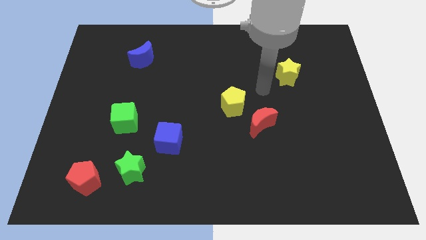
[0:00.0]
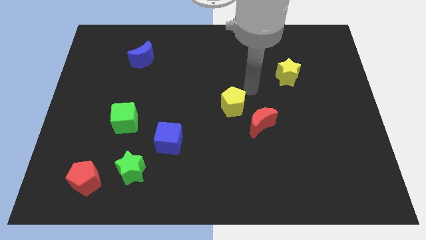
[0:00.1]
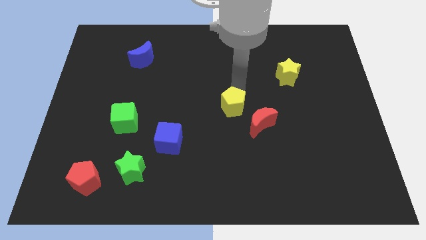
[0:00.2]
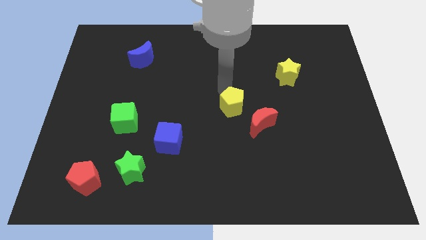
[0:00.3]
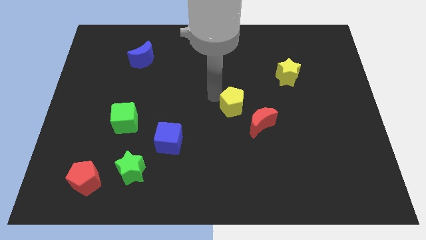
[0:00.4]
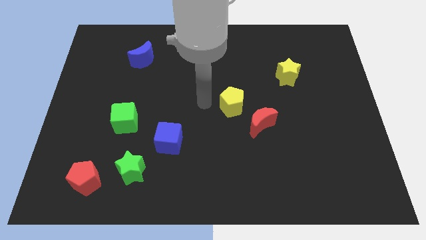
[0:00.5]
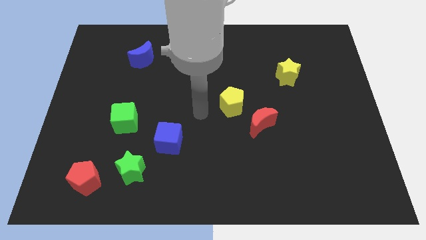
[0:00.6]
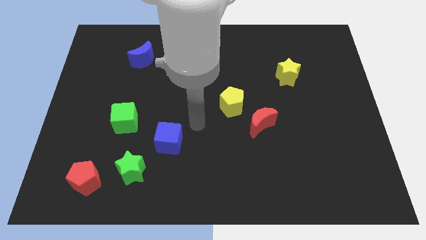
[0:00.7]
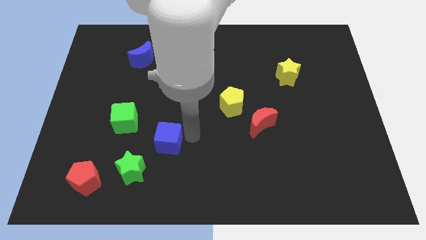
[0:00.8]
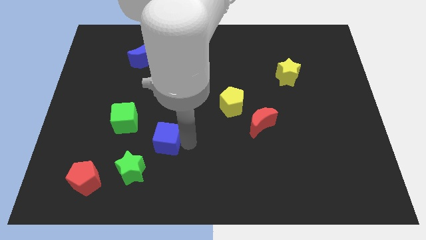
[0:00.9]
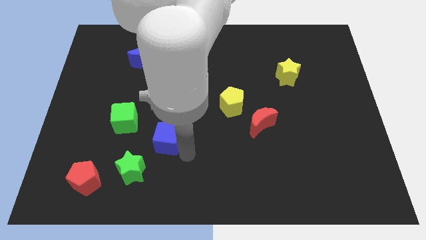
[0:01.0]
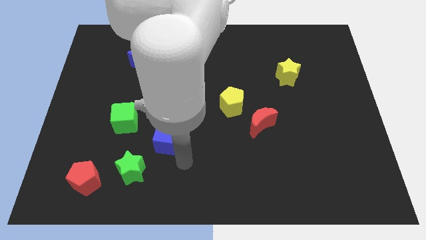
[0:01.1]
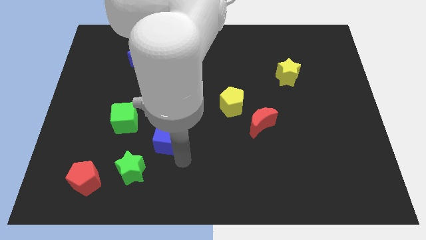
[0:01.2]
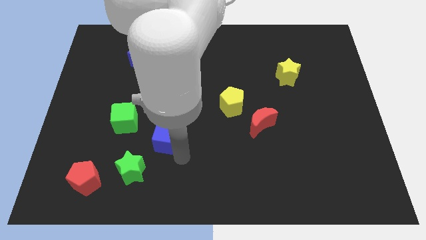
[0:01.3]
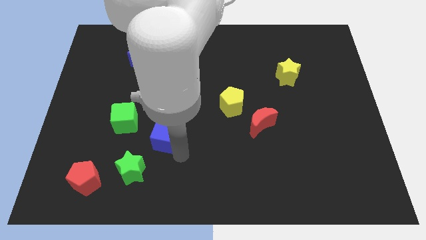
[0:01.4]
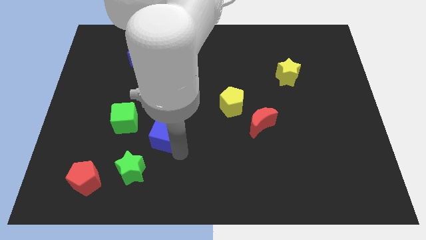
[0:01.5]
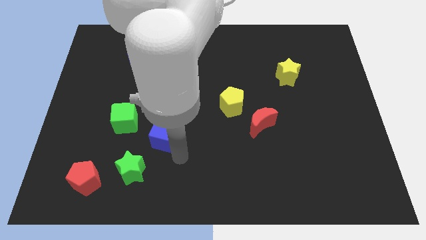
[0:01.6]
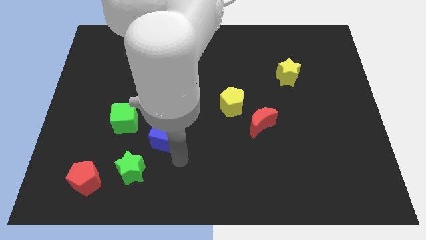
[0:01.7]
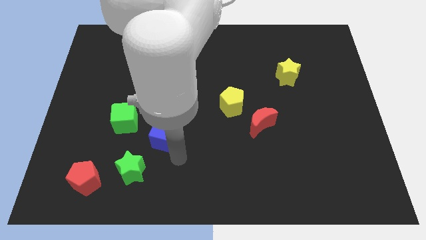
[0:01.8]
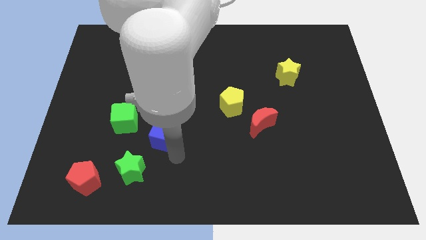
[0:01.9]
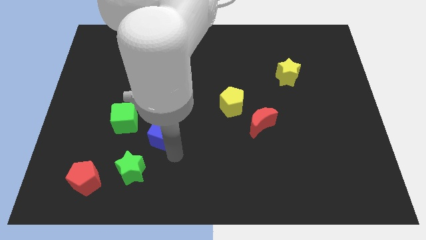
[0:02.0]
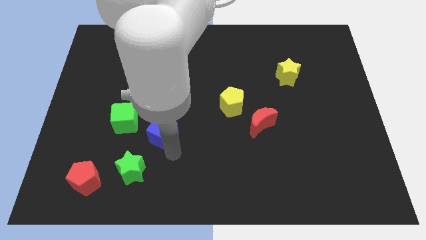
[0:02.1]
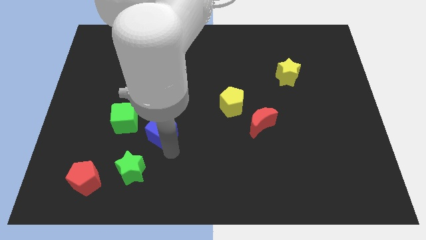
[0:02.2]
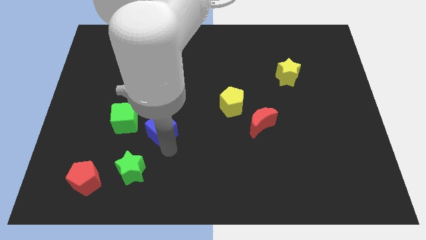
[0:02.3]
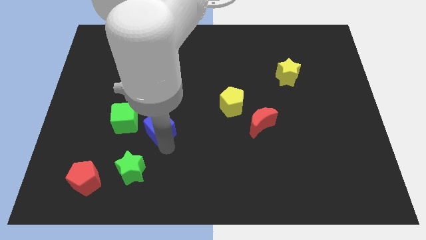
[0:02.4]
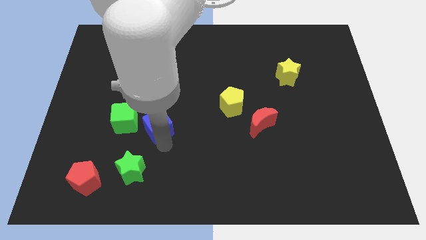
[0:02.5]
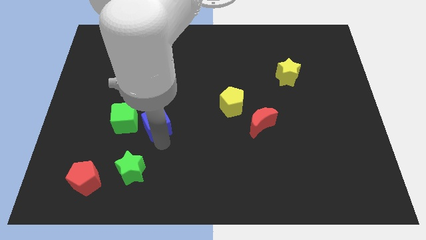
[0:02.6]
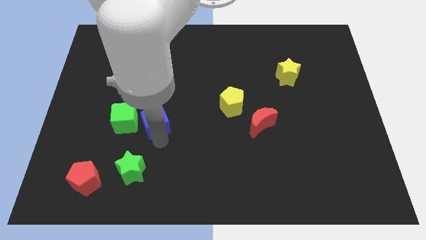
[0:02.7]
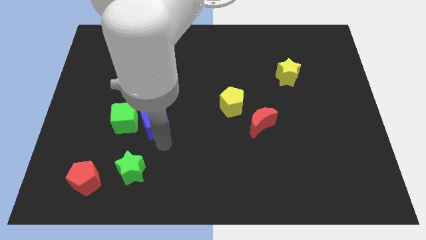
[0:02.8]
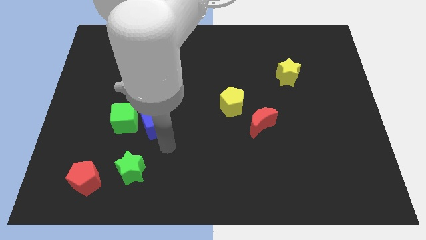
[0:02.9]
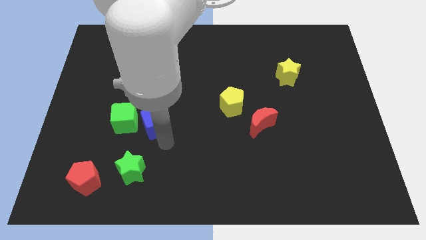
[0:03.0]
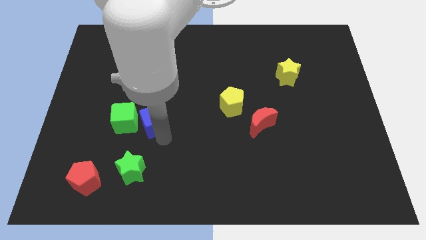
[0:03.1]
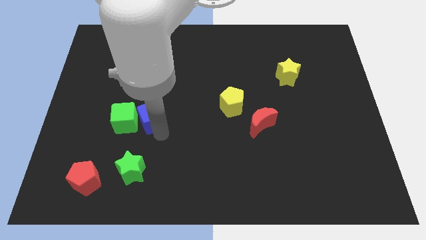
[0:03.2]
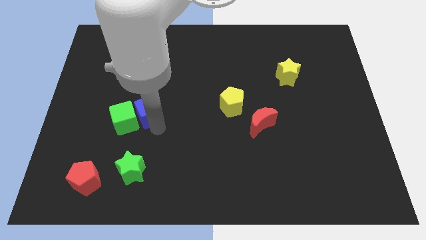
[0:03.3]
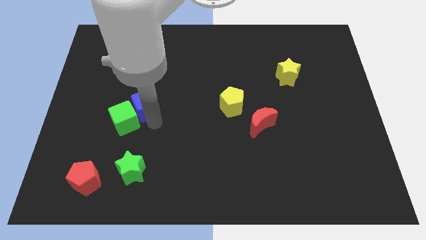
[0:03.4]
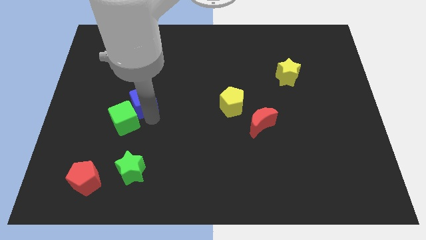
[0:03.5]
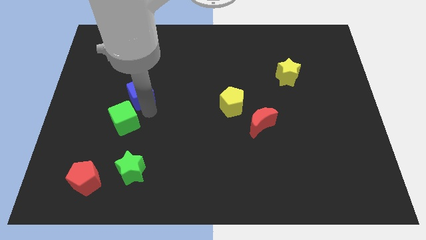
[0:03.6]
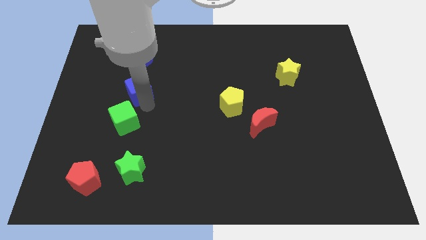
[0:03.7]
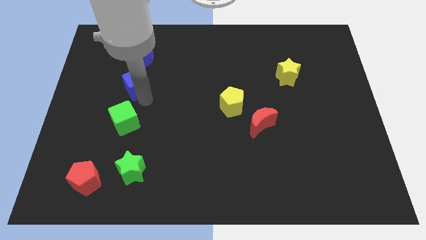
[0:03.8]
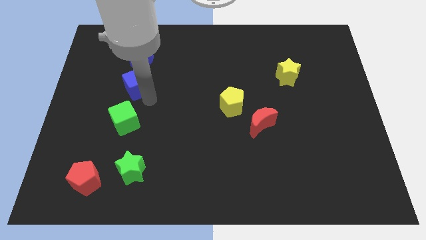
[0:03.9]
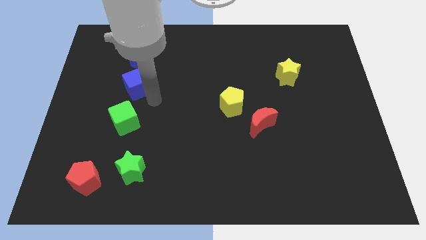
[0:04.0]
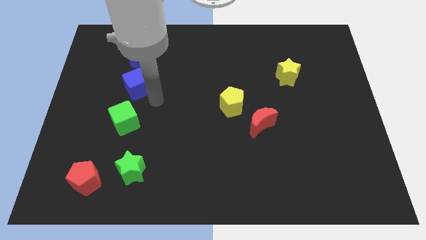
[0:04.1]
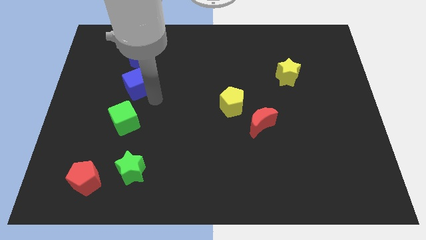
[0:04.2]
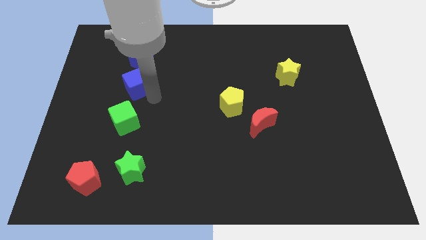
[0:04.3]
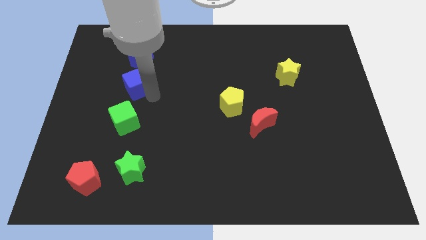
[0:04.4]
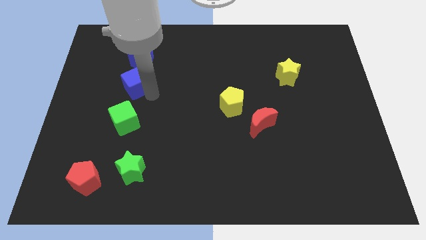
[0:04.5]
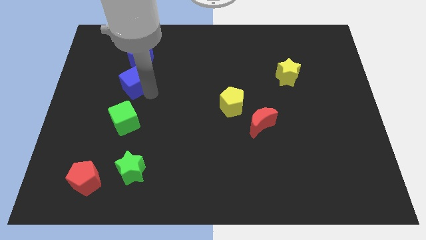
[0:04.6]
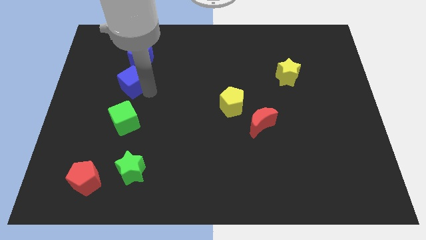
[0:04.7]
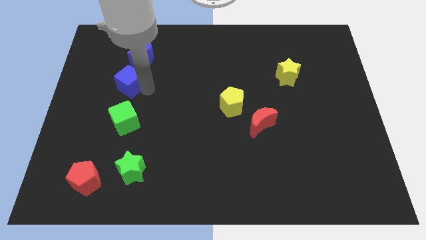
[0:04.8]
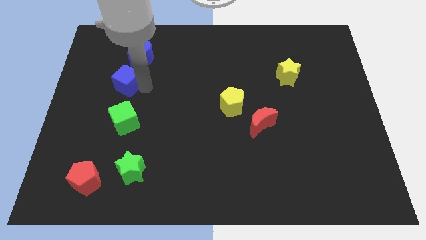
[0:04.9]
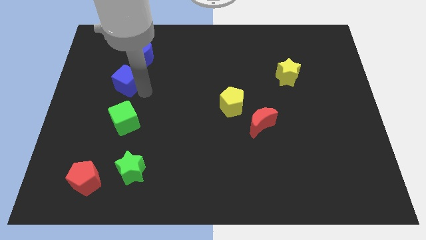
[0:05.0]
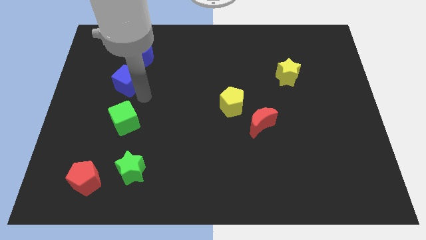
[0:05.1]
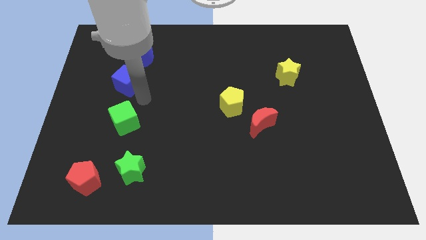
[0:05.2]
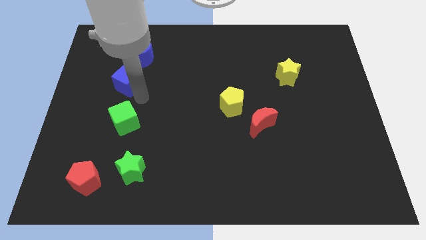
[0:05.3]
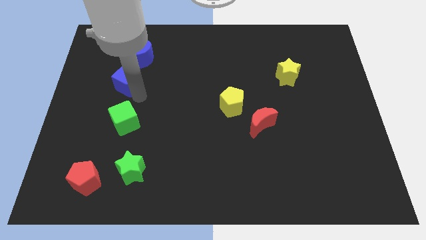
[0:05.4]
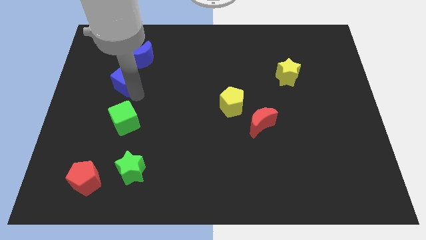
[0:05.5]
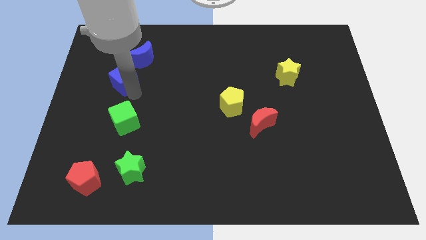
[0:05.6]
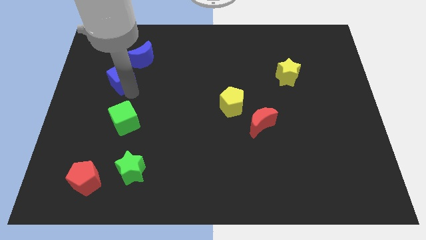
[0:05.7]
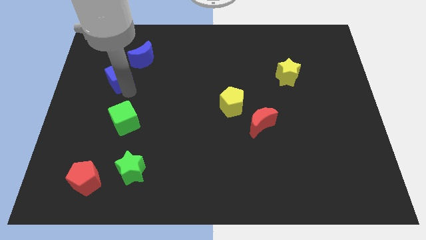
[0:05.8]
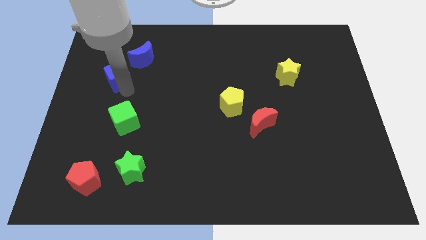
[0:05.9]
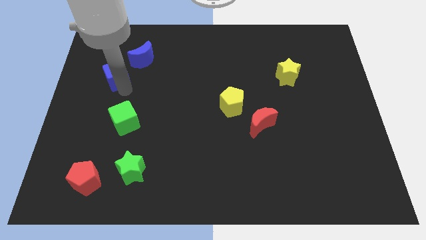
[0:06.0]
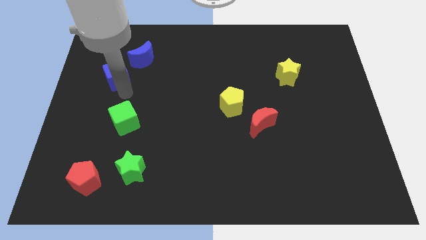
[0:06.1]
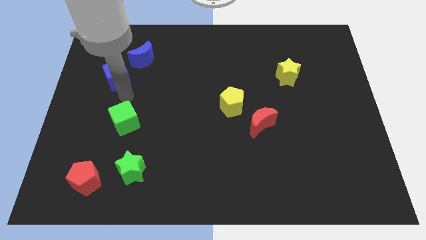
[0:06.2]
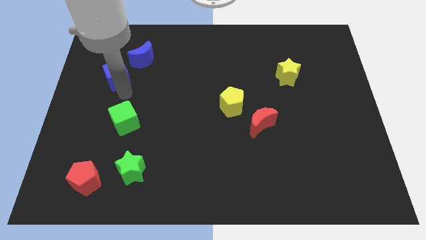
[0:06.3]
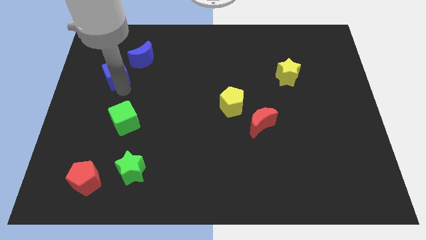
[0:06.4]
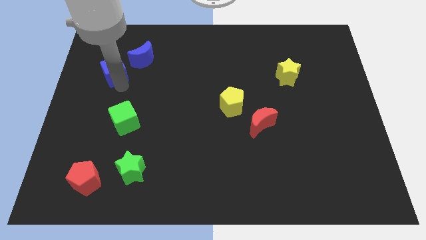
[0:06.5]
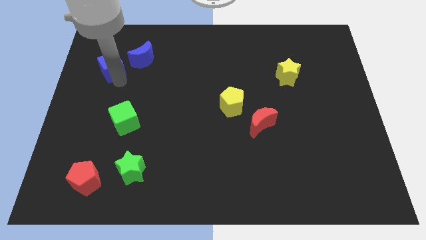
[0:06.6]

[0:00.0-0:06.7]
put the blue cube just left of the blue moon

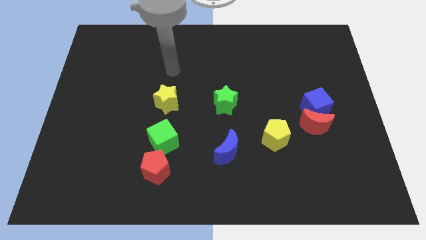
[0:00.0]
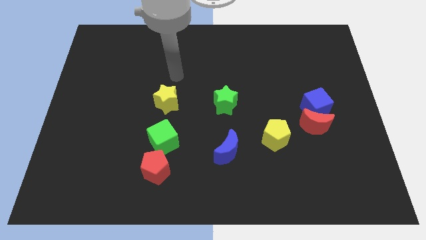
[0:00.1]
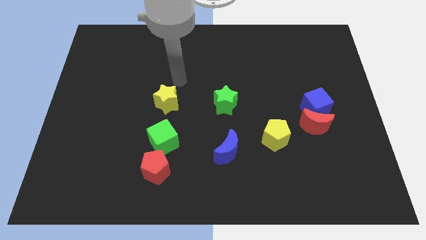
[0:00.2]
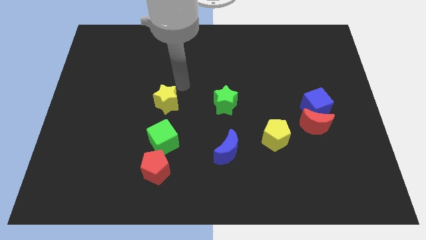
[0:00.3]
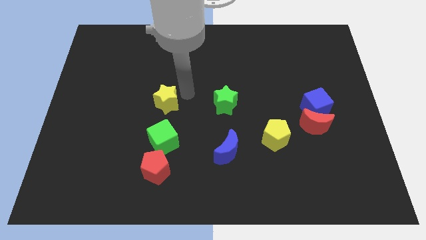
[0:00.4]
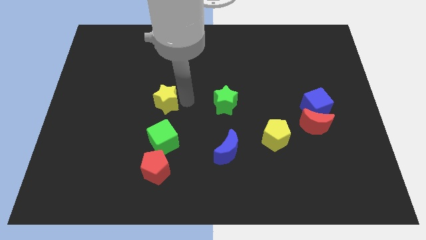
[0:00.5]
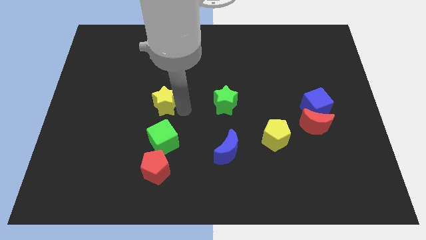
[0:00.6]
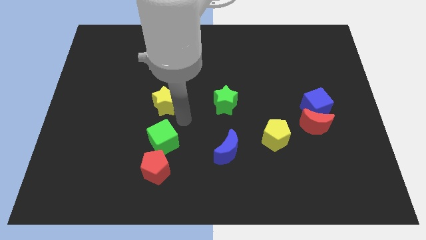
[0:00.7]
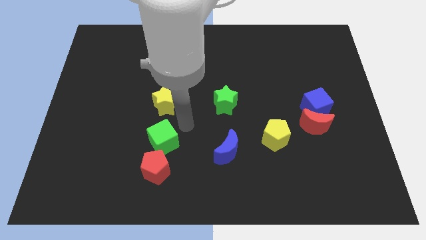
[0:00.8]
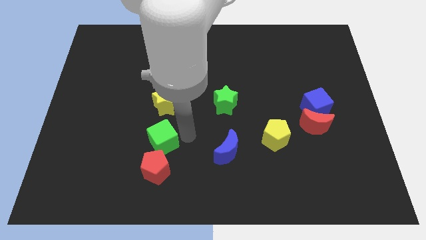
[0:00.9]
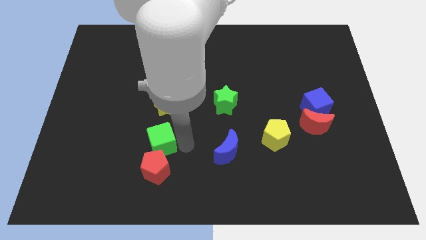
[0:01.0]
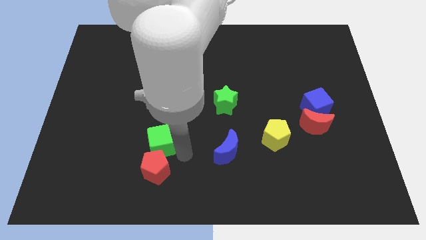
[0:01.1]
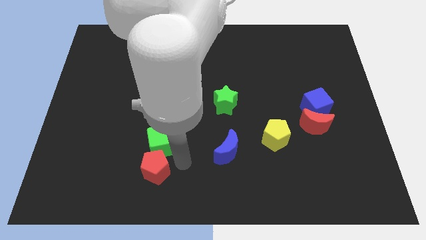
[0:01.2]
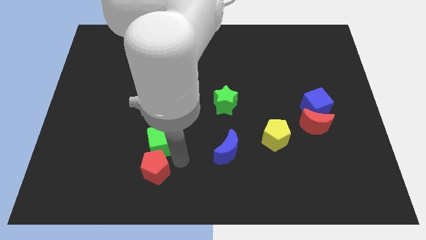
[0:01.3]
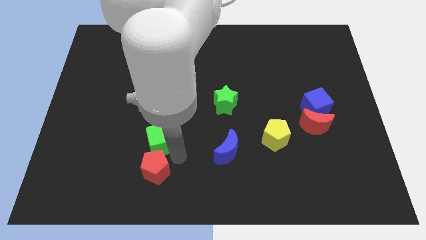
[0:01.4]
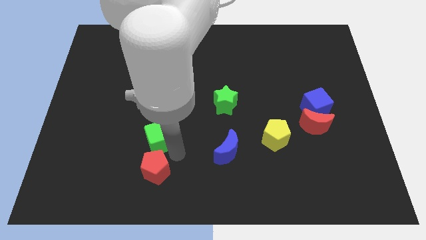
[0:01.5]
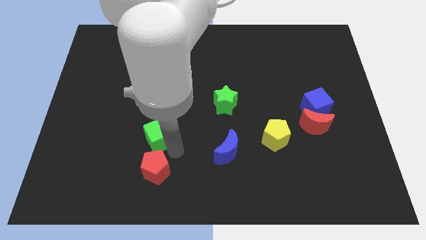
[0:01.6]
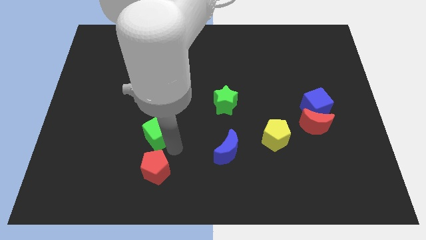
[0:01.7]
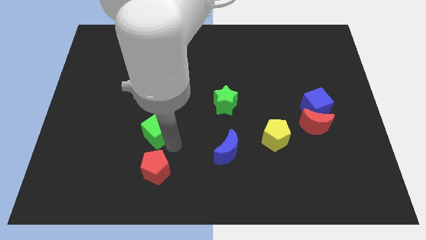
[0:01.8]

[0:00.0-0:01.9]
put the green cube diagonally down and to the left of the yellow star

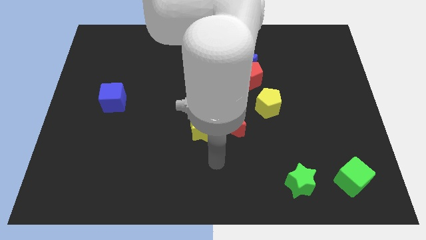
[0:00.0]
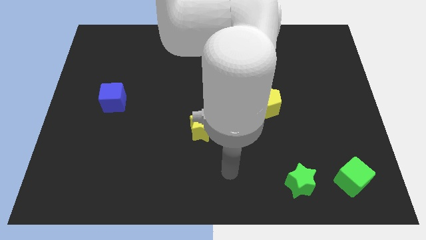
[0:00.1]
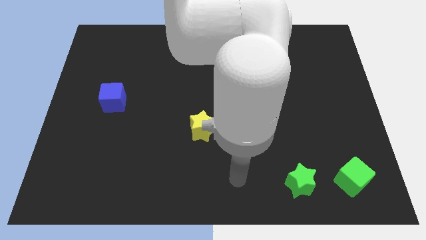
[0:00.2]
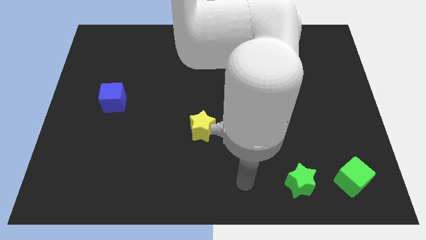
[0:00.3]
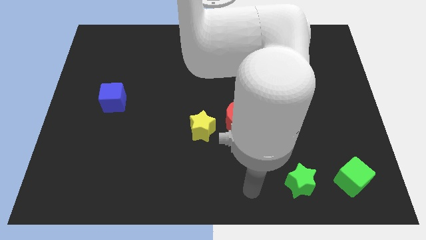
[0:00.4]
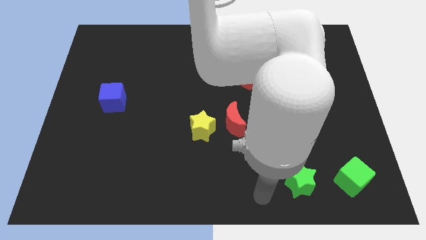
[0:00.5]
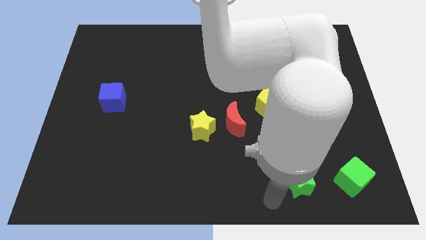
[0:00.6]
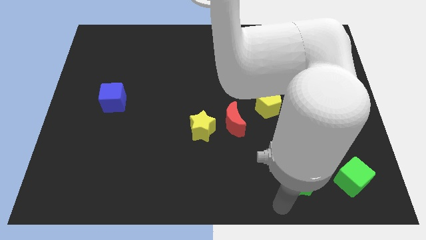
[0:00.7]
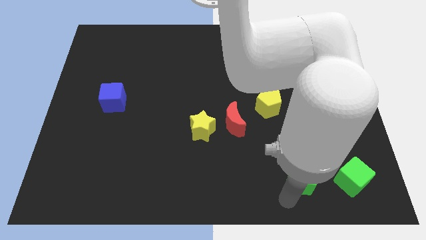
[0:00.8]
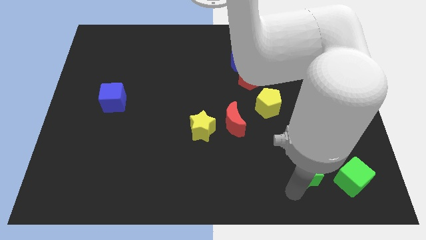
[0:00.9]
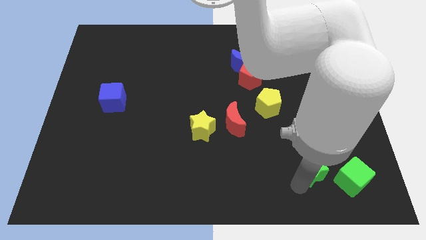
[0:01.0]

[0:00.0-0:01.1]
put the green star to the top left of the green cube
